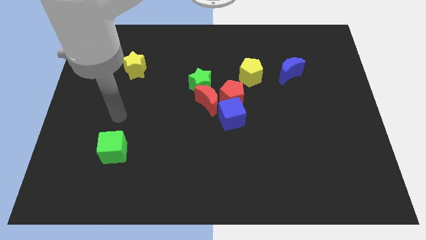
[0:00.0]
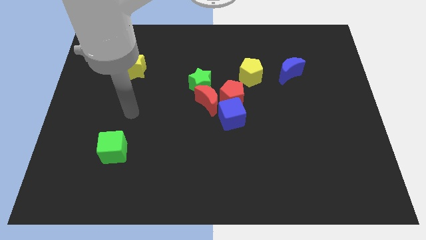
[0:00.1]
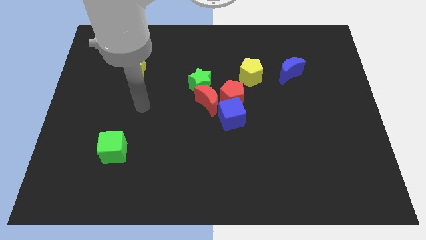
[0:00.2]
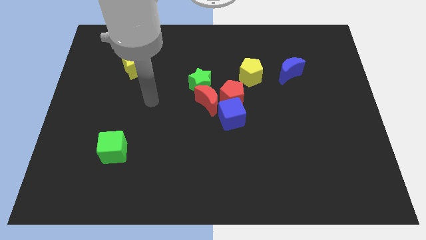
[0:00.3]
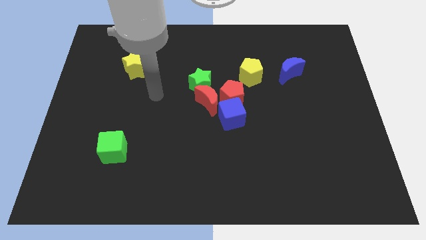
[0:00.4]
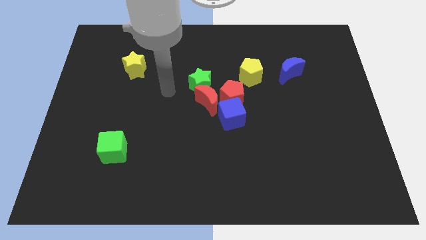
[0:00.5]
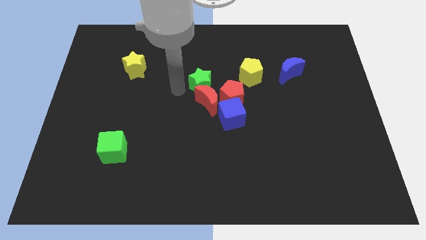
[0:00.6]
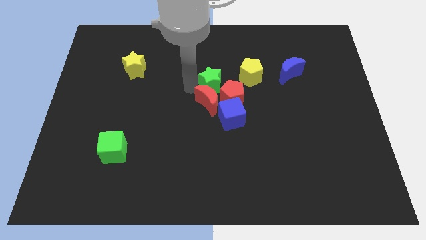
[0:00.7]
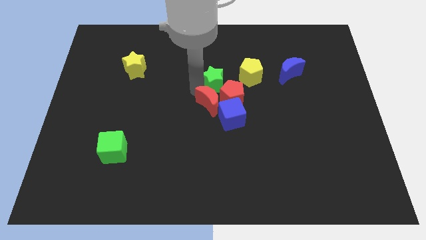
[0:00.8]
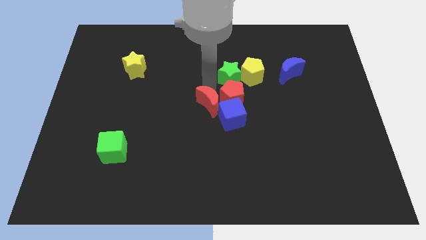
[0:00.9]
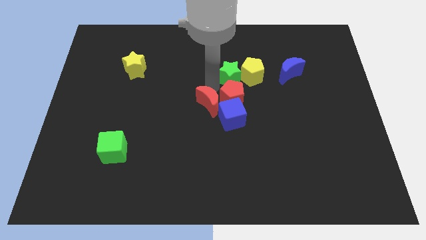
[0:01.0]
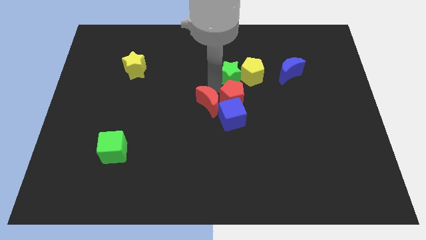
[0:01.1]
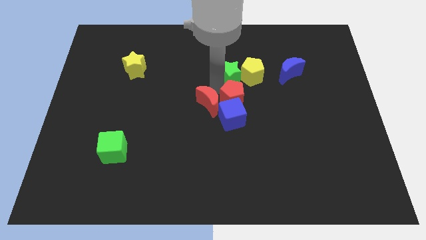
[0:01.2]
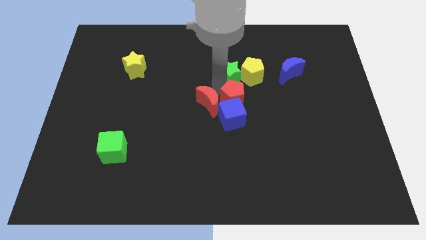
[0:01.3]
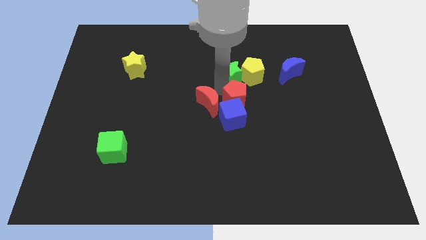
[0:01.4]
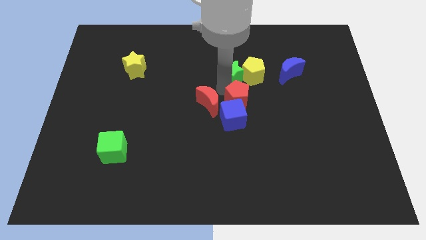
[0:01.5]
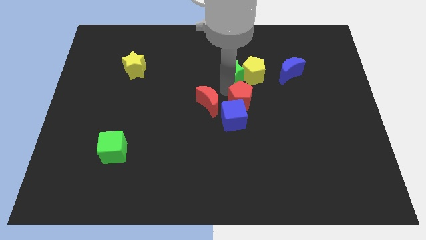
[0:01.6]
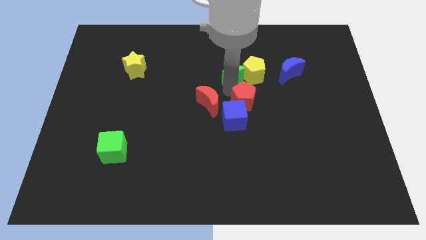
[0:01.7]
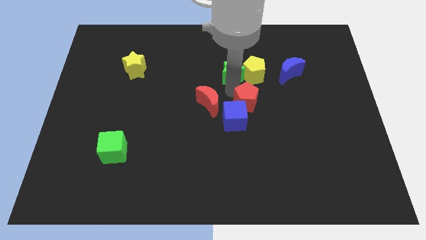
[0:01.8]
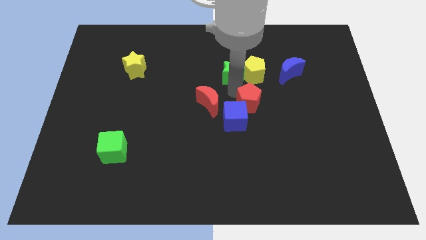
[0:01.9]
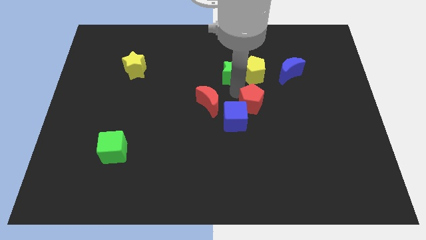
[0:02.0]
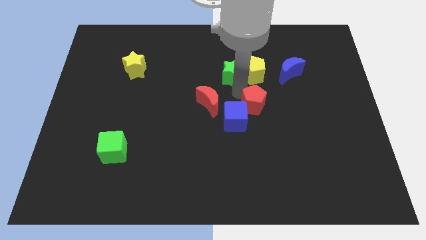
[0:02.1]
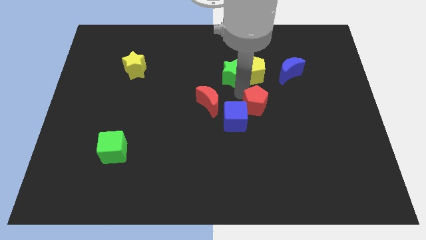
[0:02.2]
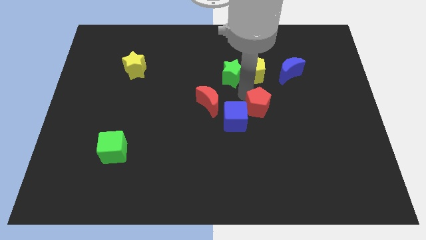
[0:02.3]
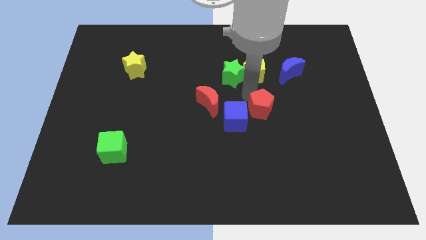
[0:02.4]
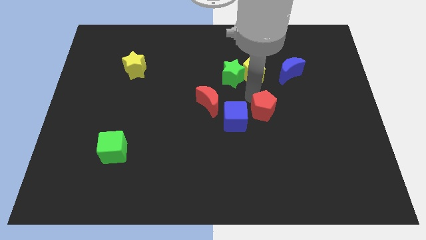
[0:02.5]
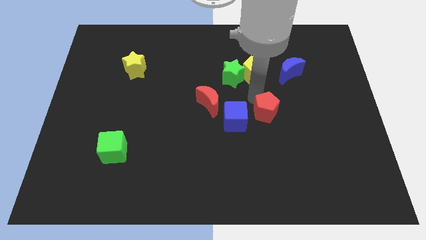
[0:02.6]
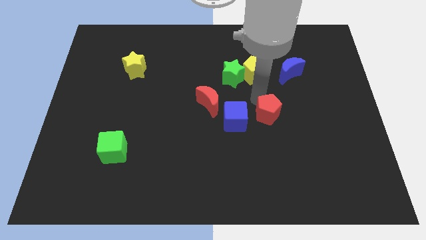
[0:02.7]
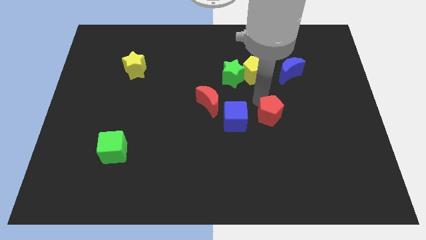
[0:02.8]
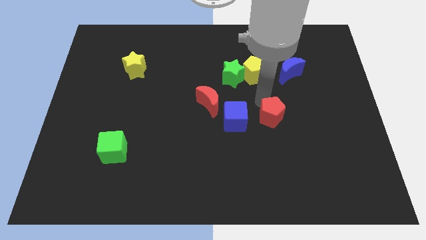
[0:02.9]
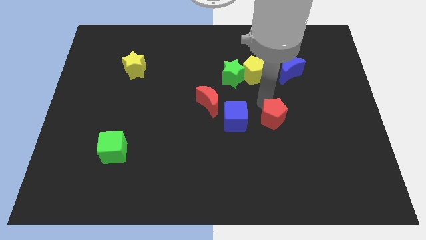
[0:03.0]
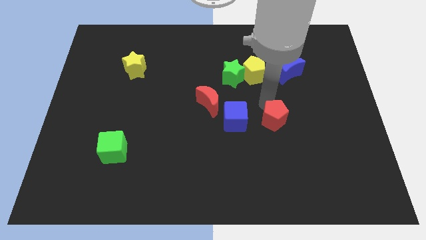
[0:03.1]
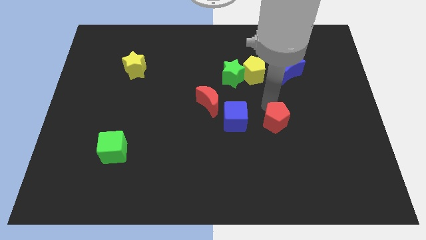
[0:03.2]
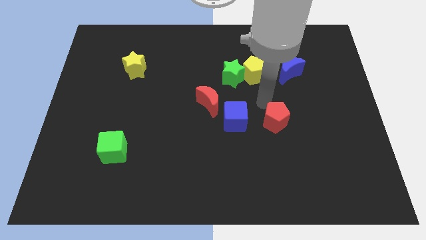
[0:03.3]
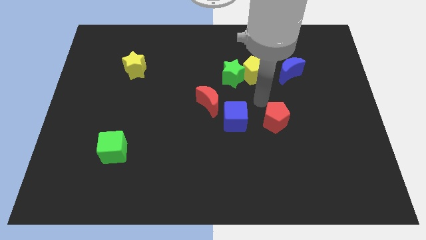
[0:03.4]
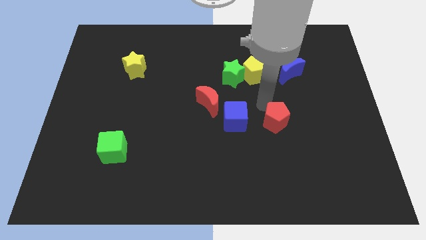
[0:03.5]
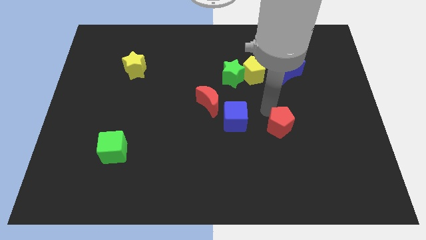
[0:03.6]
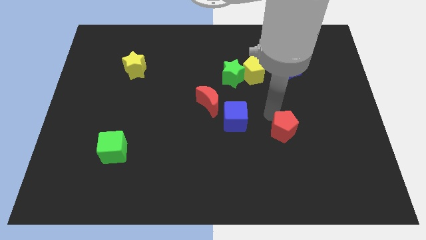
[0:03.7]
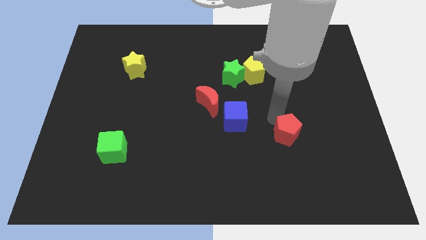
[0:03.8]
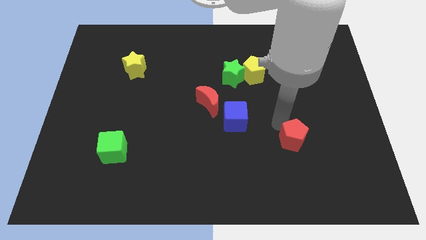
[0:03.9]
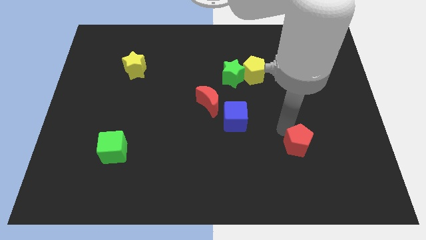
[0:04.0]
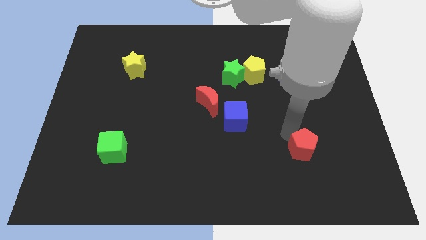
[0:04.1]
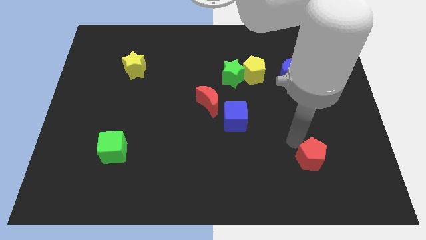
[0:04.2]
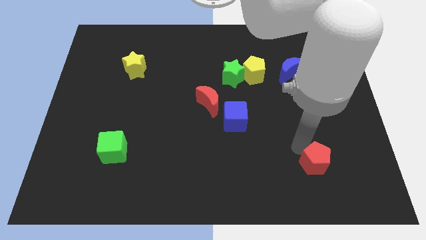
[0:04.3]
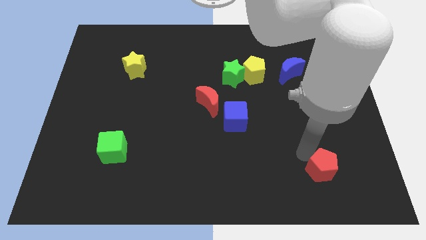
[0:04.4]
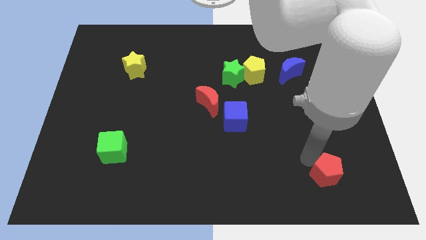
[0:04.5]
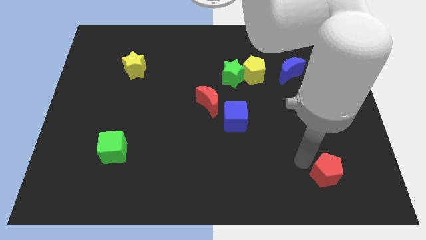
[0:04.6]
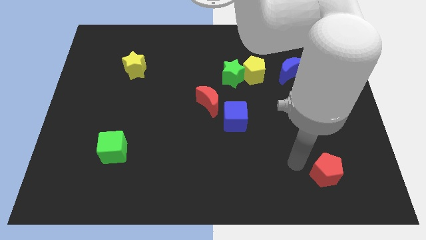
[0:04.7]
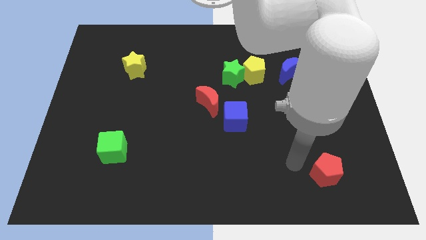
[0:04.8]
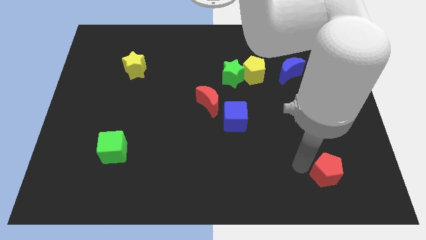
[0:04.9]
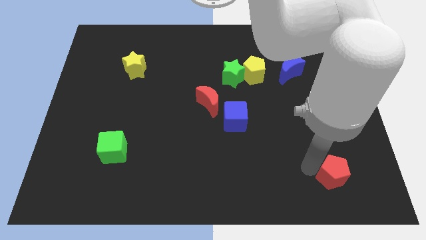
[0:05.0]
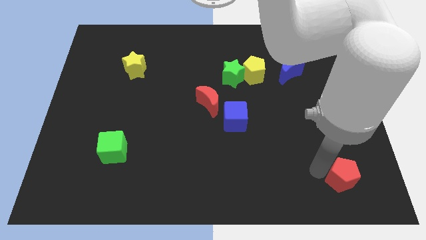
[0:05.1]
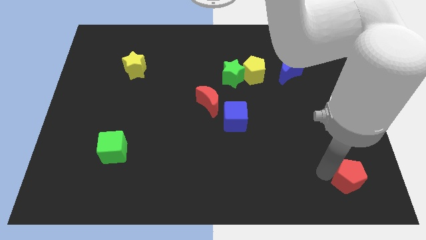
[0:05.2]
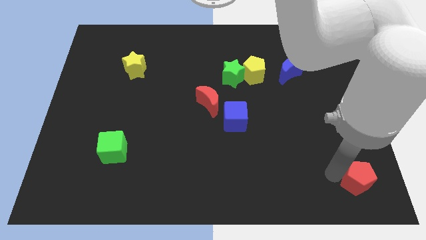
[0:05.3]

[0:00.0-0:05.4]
push the red pentagon to the bottom right

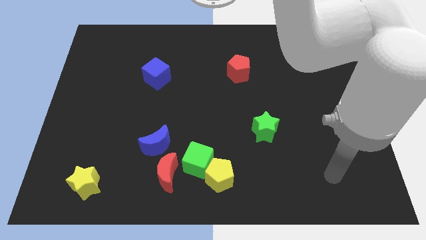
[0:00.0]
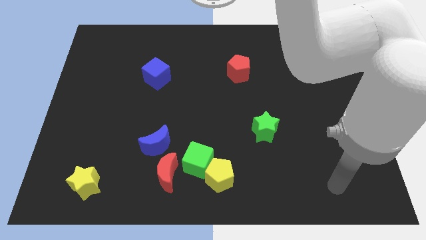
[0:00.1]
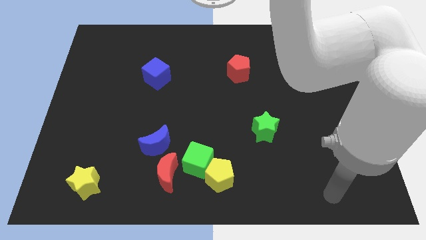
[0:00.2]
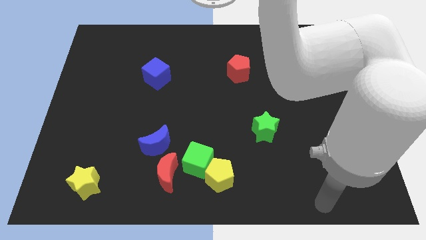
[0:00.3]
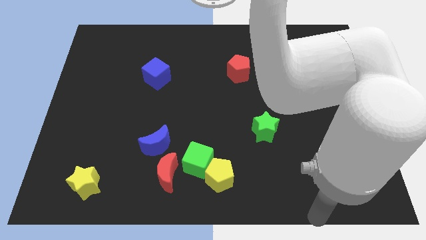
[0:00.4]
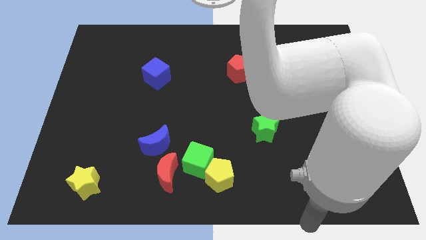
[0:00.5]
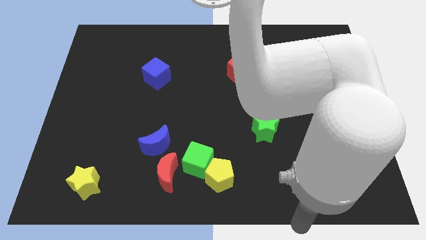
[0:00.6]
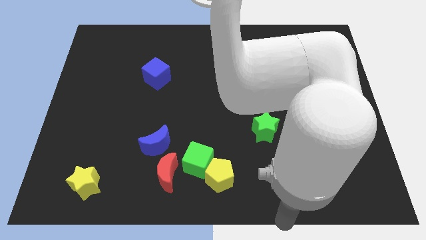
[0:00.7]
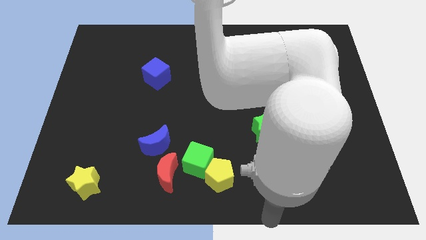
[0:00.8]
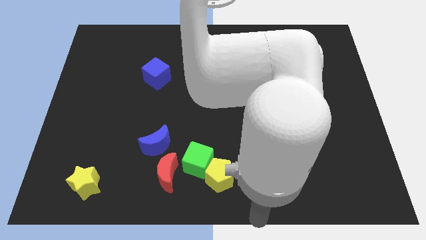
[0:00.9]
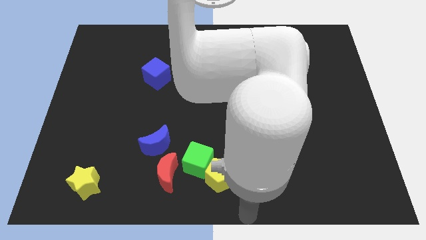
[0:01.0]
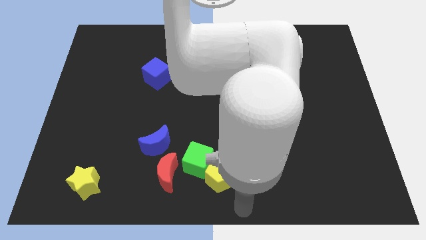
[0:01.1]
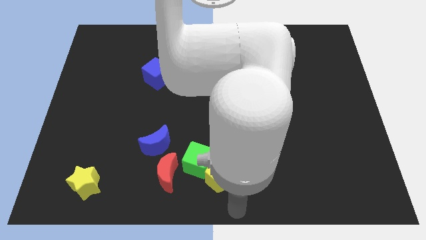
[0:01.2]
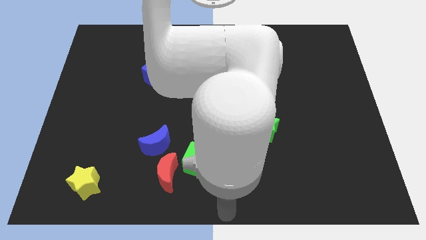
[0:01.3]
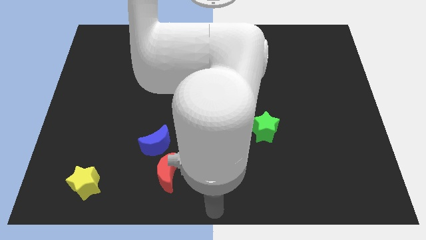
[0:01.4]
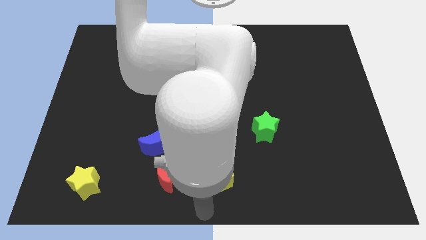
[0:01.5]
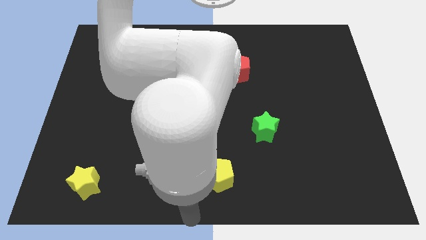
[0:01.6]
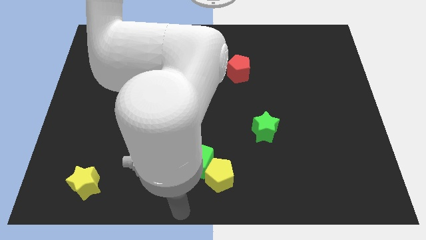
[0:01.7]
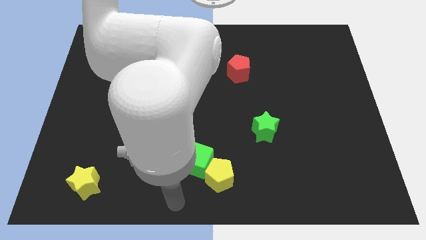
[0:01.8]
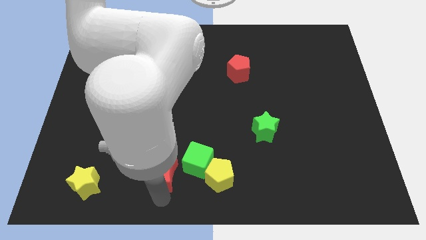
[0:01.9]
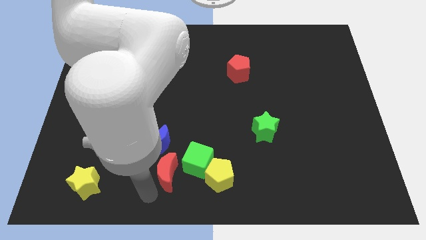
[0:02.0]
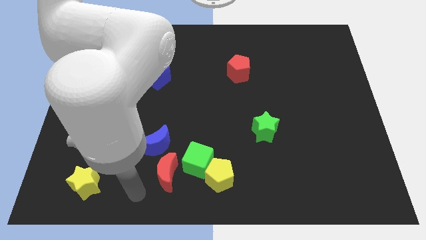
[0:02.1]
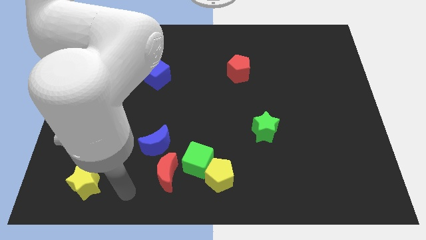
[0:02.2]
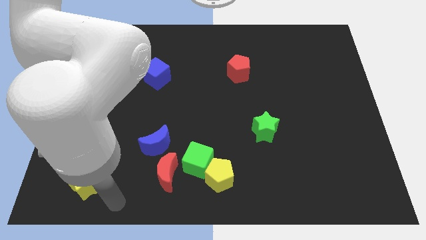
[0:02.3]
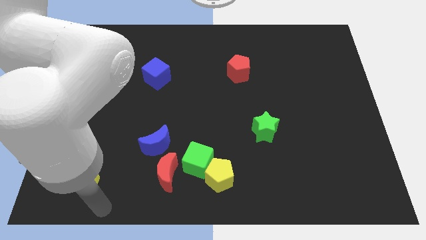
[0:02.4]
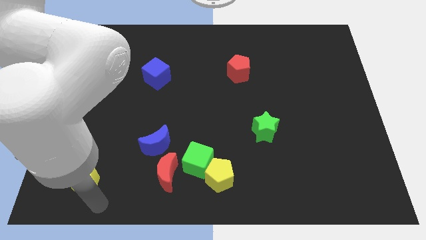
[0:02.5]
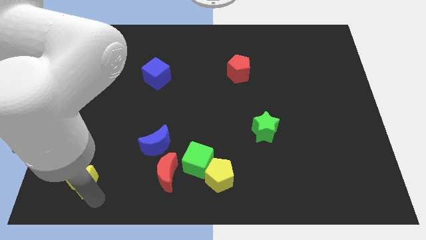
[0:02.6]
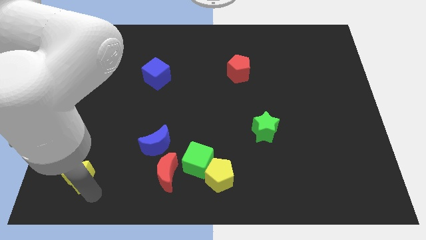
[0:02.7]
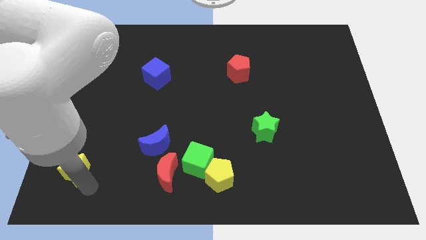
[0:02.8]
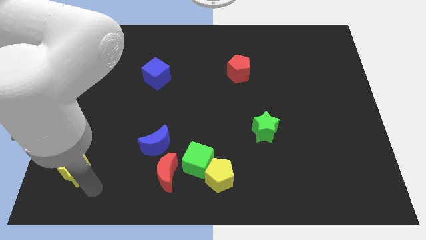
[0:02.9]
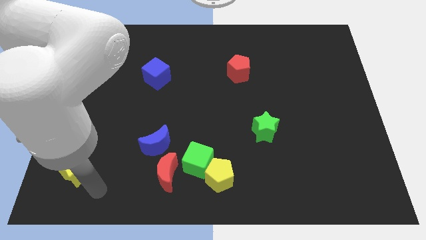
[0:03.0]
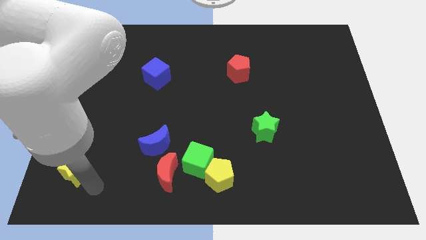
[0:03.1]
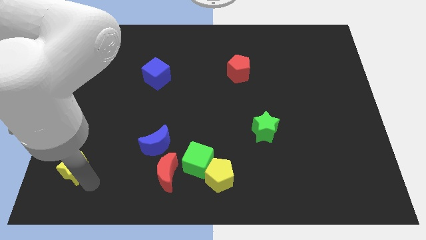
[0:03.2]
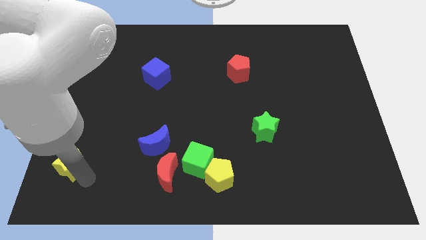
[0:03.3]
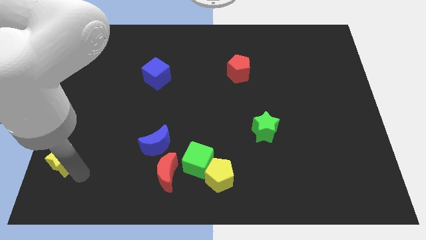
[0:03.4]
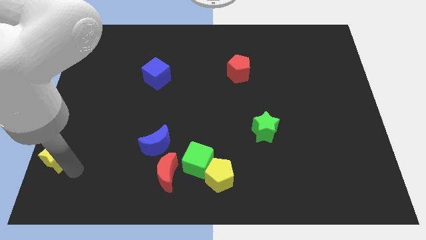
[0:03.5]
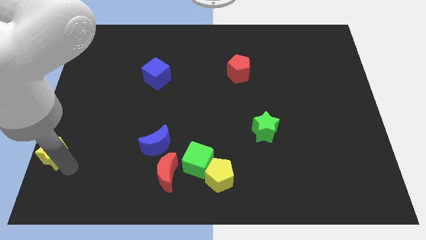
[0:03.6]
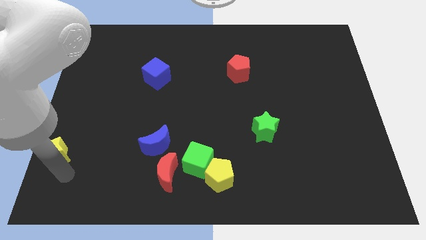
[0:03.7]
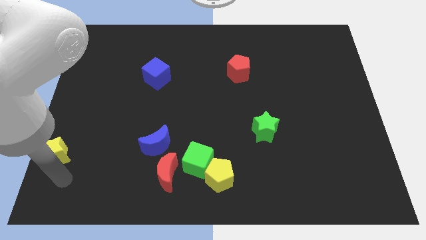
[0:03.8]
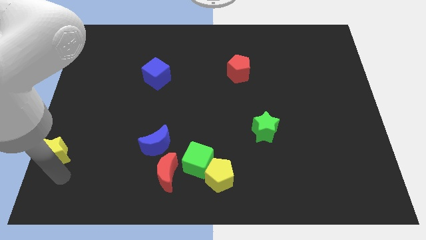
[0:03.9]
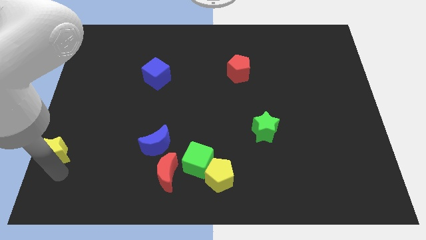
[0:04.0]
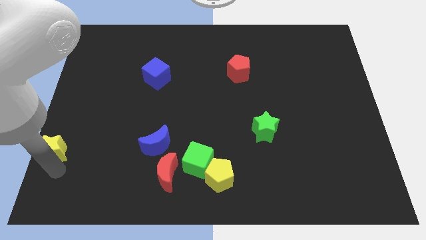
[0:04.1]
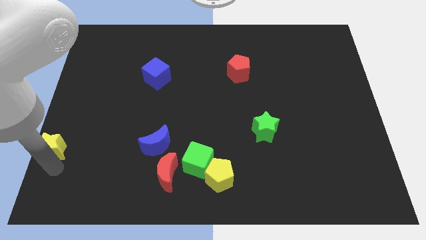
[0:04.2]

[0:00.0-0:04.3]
push the yellow star to the left side of the board
